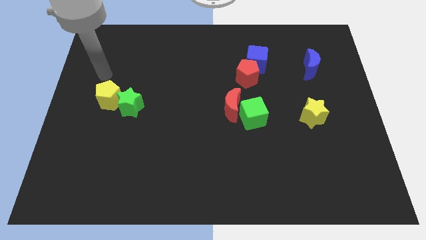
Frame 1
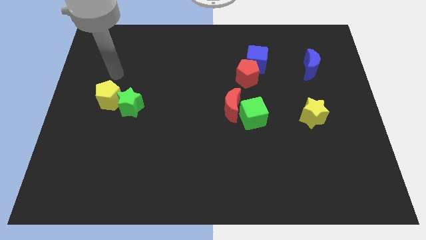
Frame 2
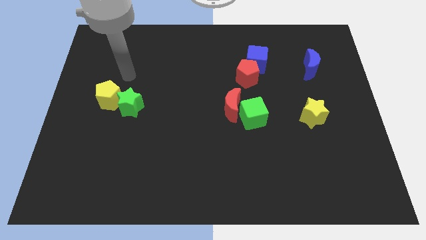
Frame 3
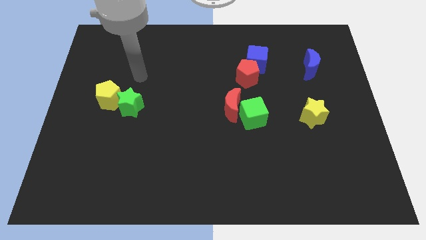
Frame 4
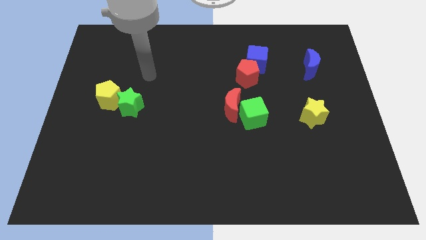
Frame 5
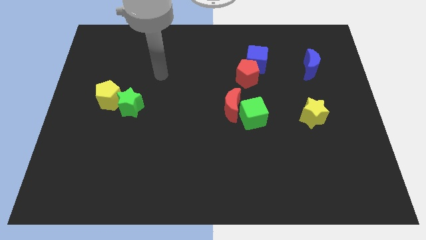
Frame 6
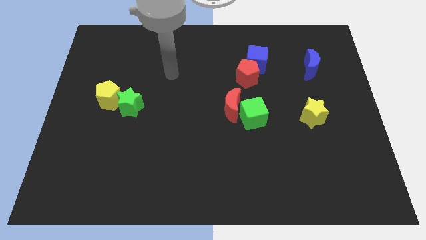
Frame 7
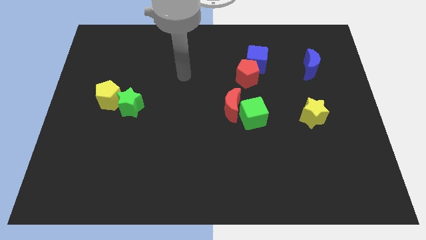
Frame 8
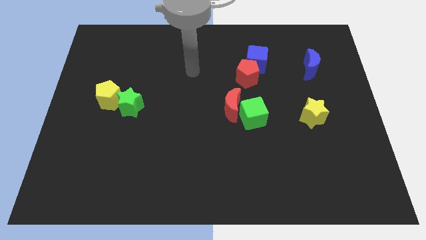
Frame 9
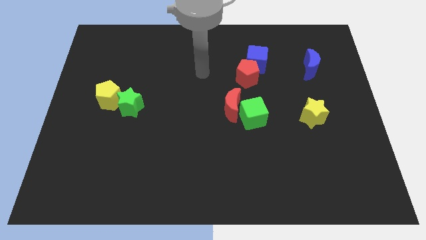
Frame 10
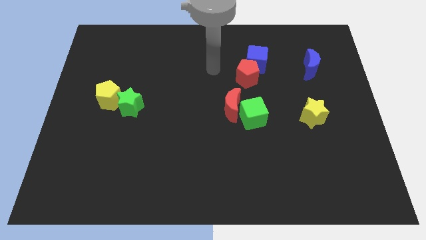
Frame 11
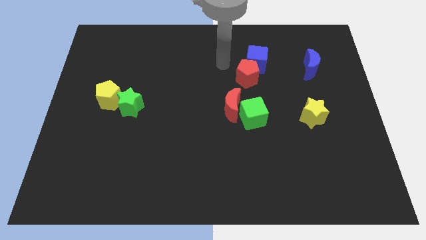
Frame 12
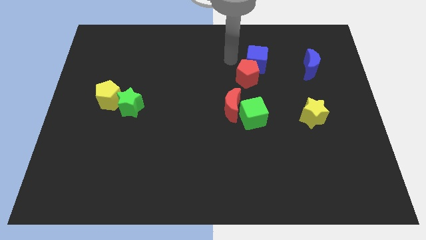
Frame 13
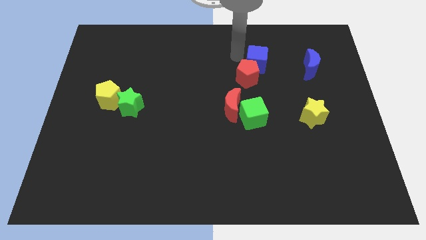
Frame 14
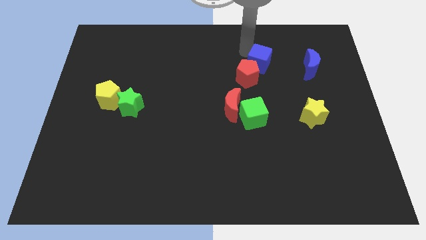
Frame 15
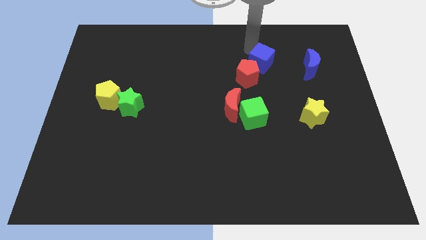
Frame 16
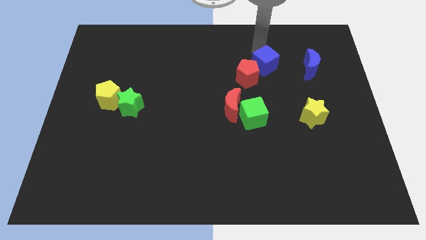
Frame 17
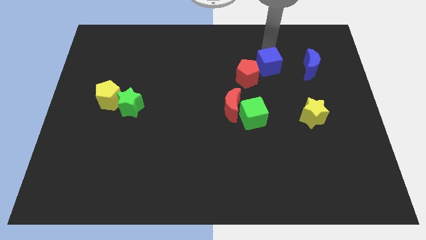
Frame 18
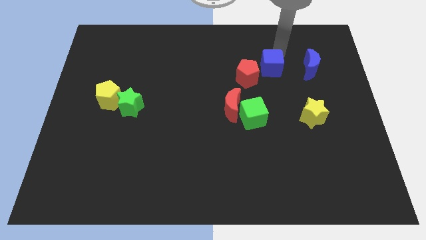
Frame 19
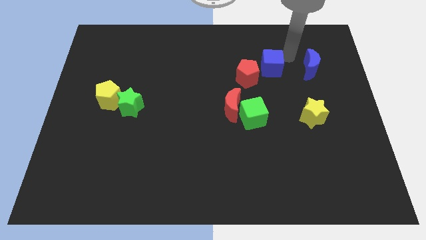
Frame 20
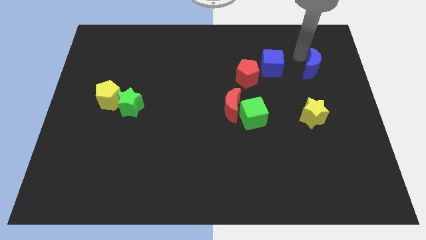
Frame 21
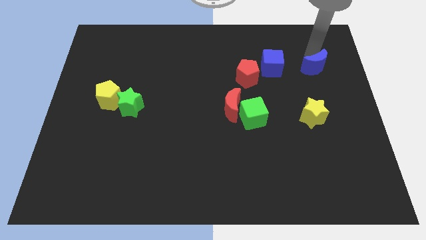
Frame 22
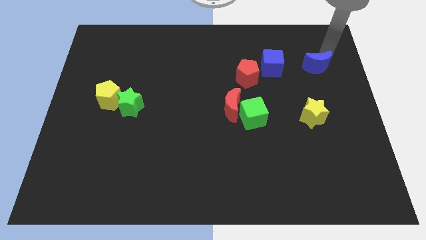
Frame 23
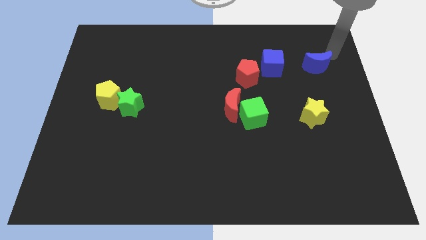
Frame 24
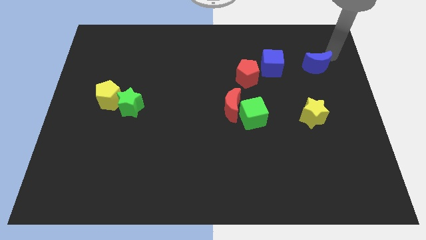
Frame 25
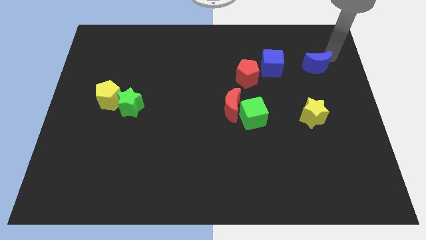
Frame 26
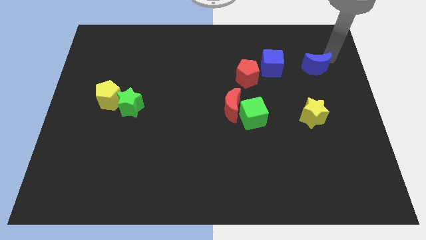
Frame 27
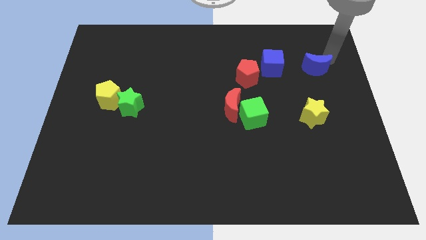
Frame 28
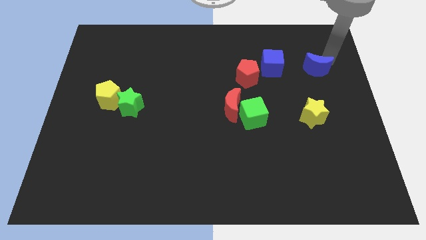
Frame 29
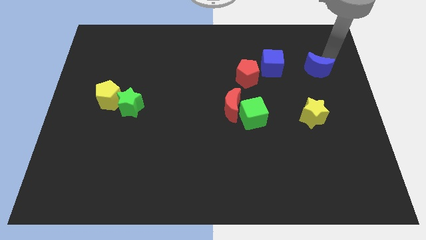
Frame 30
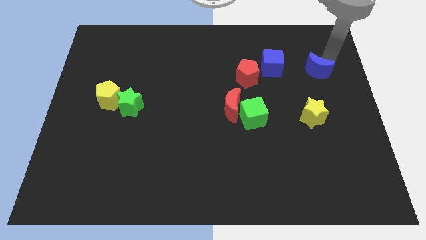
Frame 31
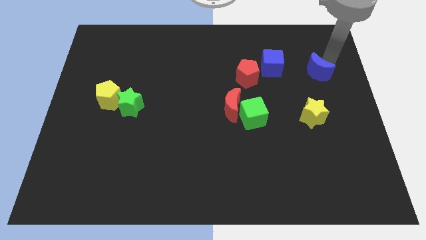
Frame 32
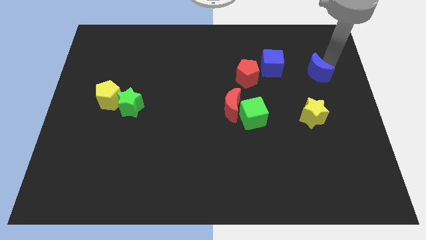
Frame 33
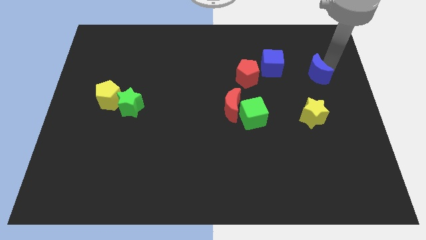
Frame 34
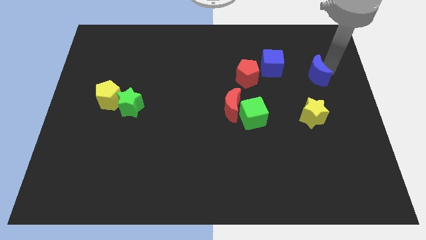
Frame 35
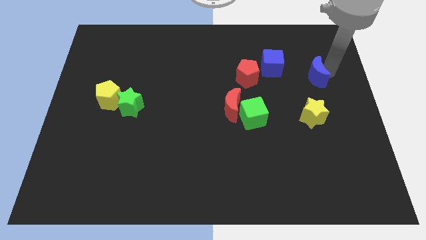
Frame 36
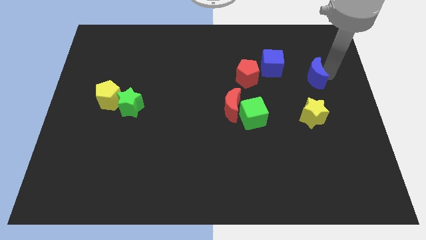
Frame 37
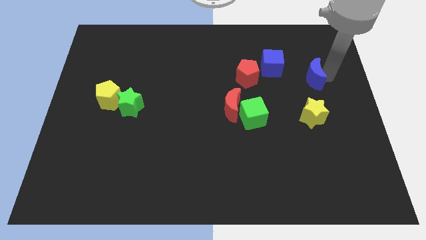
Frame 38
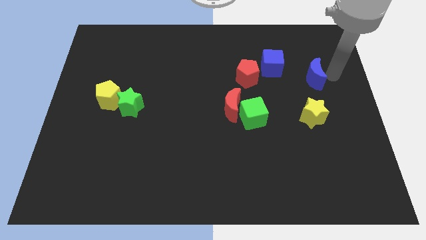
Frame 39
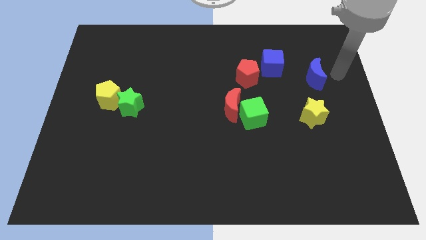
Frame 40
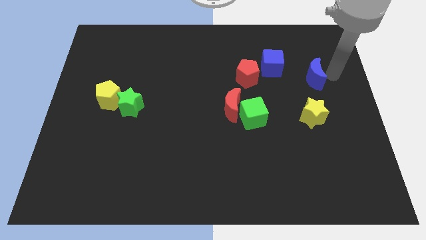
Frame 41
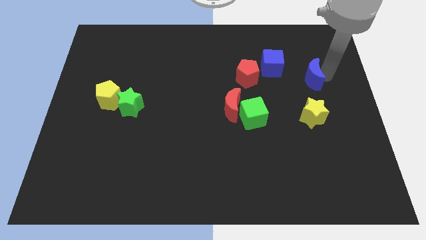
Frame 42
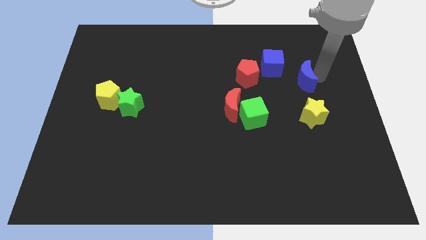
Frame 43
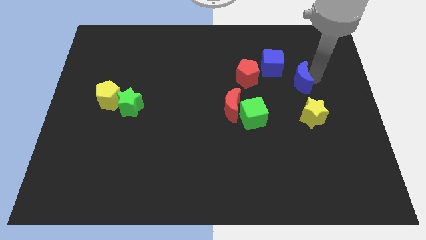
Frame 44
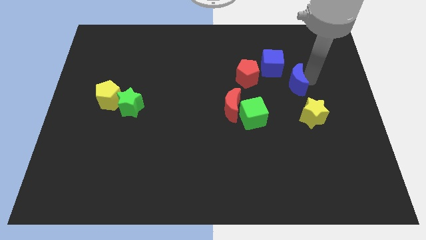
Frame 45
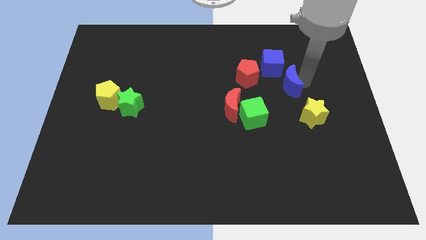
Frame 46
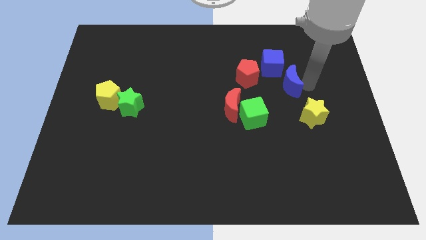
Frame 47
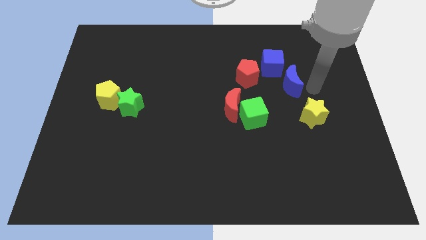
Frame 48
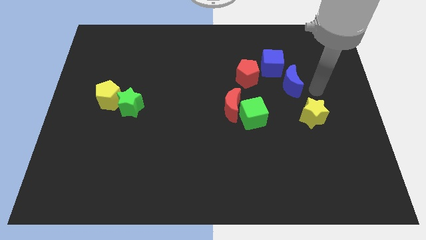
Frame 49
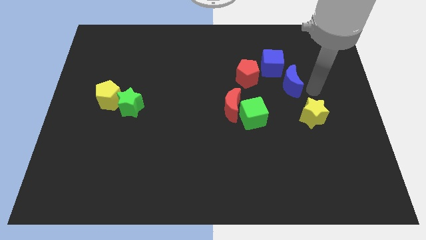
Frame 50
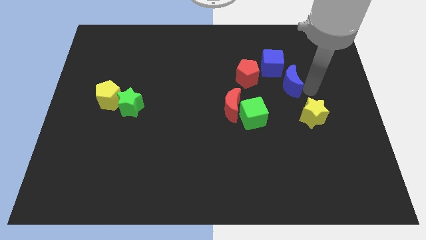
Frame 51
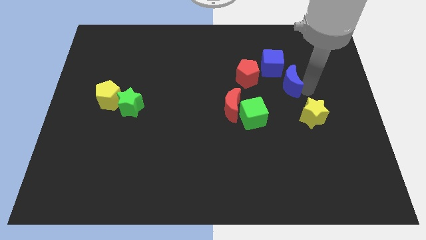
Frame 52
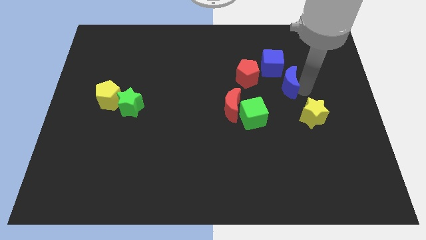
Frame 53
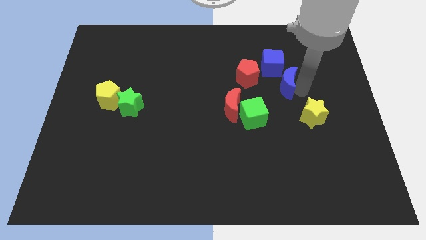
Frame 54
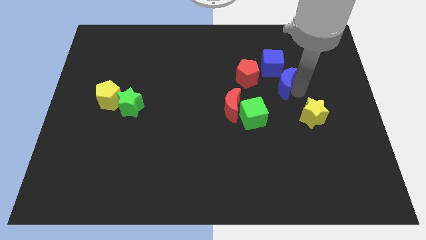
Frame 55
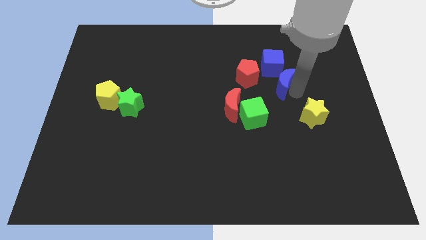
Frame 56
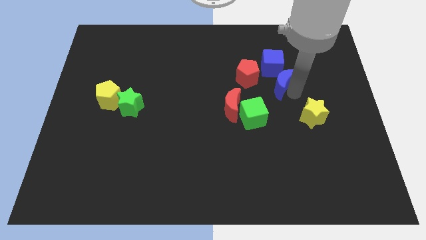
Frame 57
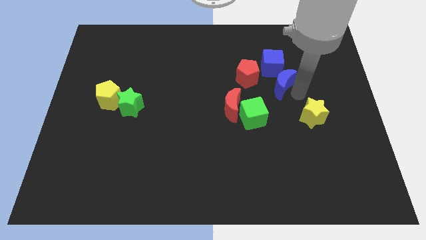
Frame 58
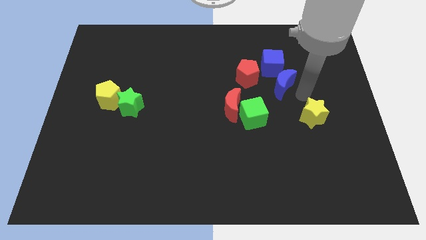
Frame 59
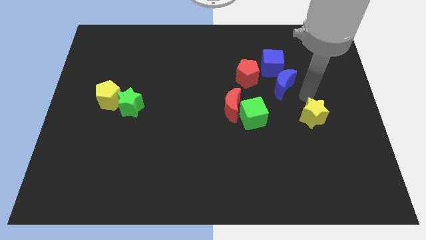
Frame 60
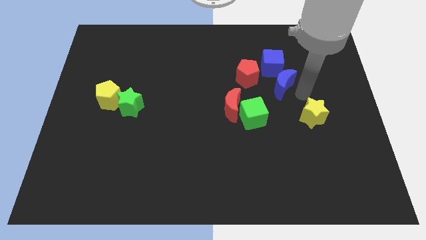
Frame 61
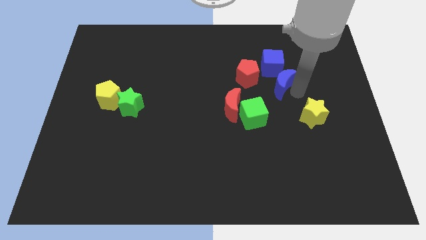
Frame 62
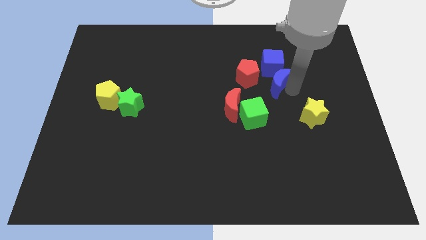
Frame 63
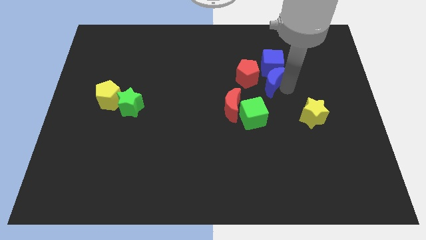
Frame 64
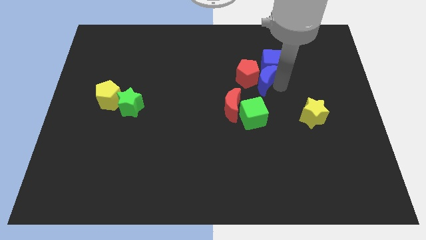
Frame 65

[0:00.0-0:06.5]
move the blue moon to the red pentagon

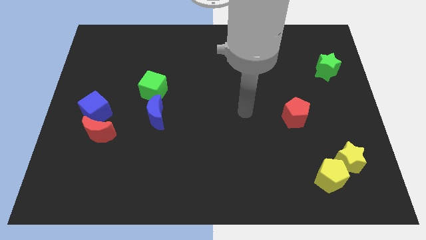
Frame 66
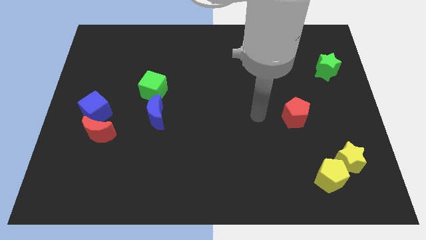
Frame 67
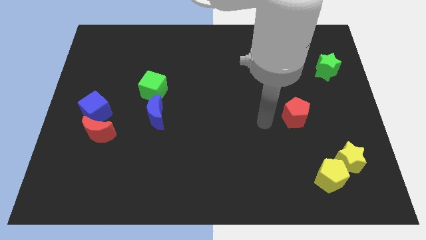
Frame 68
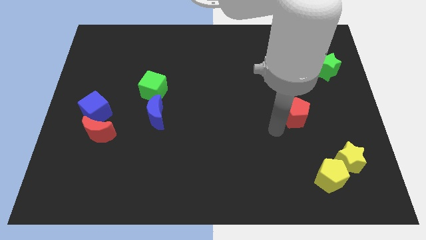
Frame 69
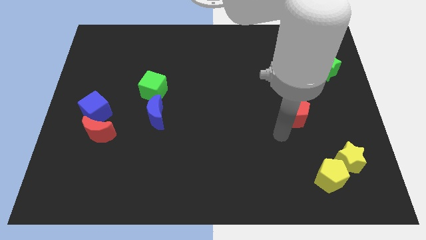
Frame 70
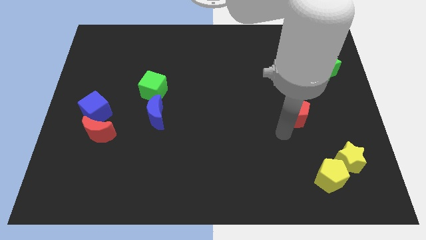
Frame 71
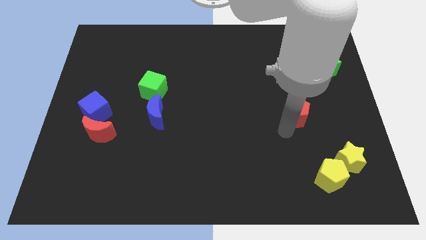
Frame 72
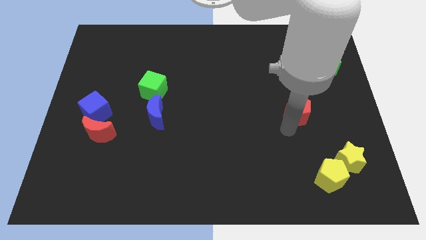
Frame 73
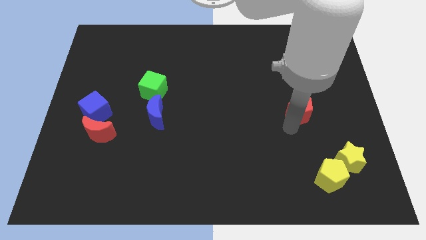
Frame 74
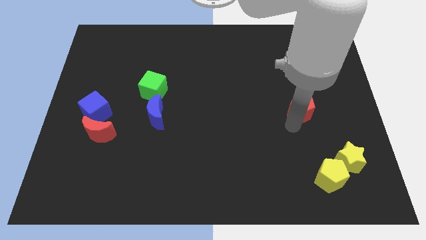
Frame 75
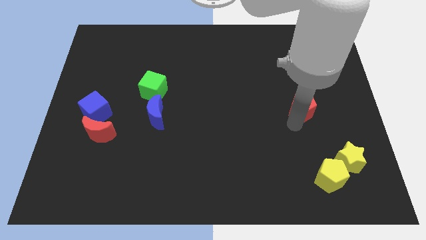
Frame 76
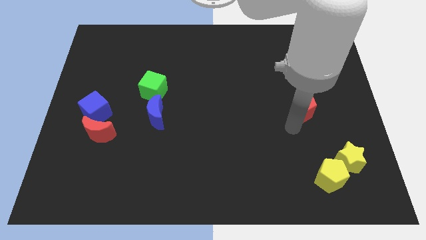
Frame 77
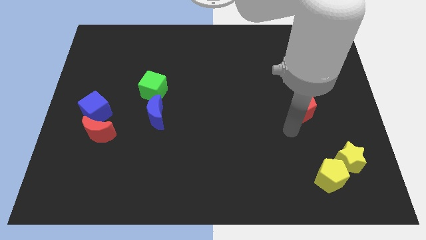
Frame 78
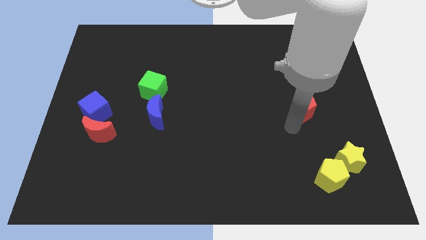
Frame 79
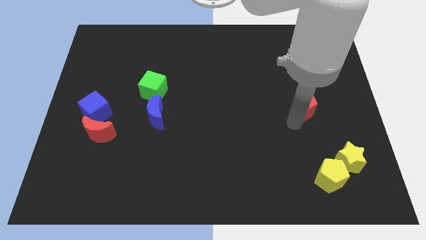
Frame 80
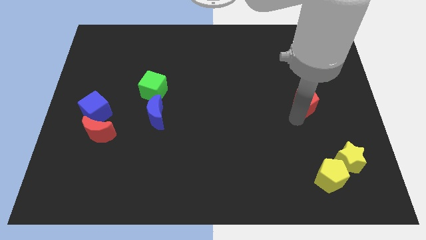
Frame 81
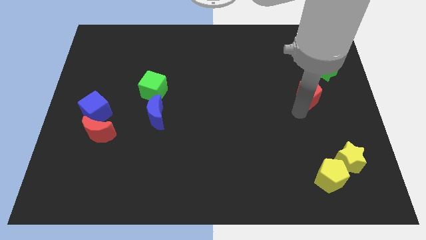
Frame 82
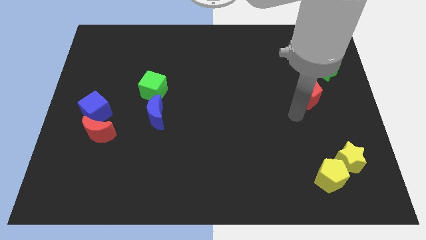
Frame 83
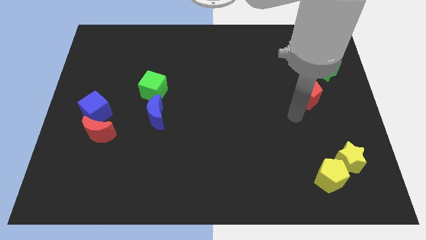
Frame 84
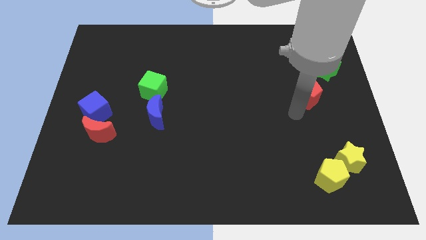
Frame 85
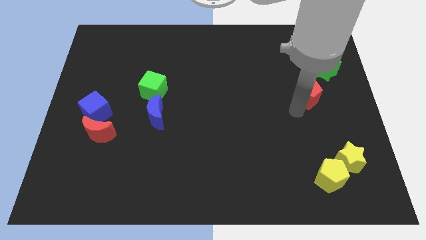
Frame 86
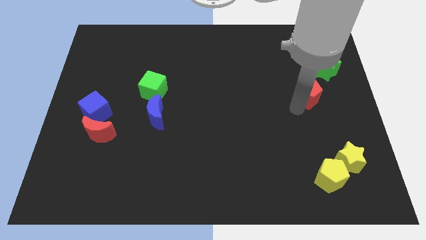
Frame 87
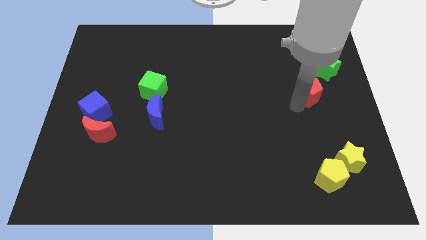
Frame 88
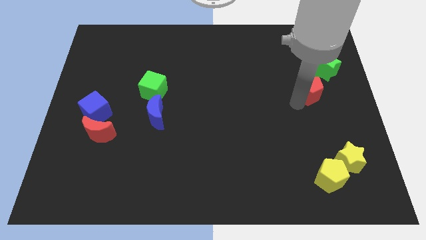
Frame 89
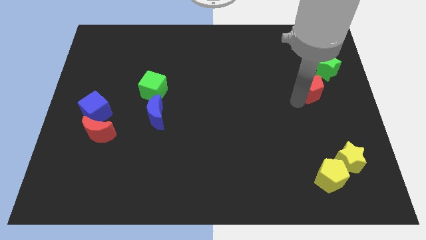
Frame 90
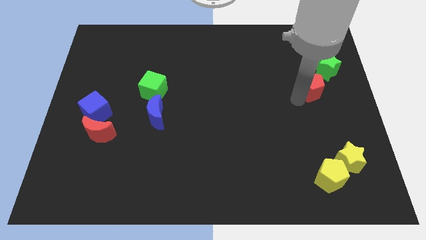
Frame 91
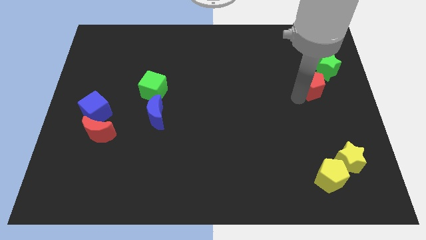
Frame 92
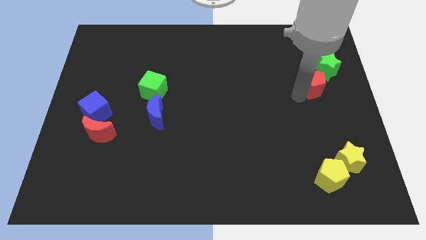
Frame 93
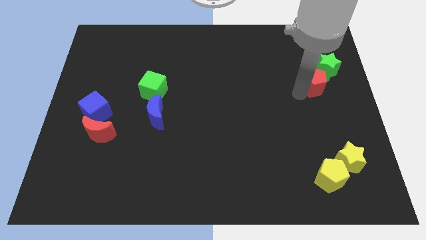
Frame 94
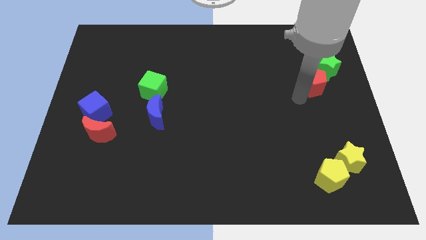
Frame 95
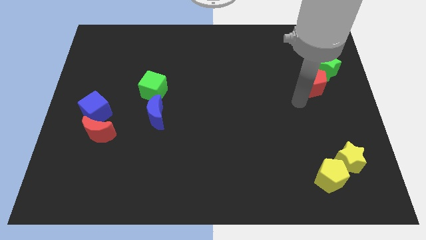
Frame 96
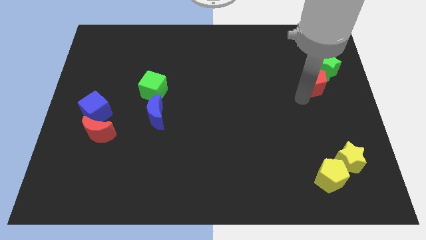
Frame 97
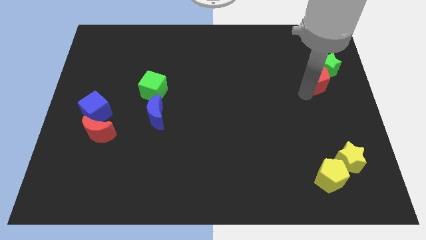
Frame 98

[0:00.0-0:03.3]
put the red pentagon to the green star
